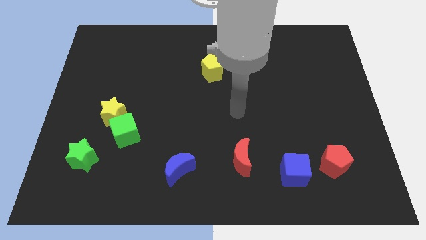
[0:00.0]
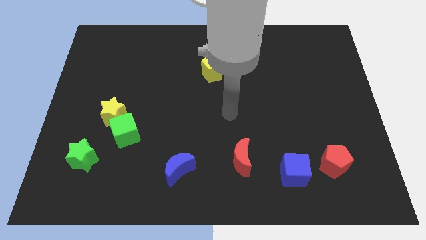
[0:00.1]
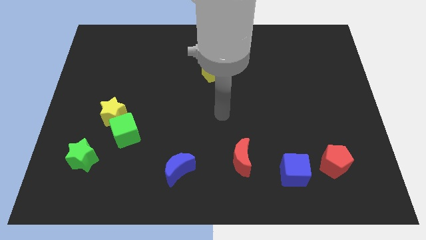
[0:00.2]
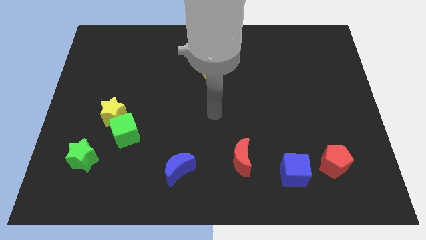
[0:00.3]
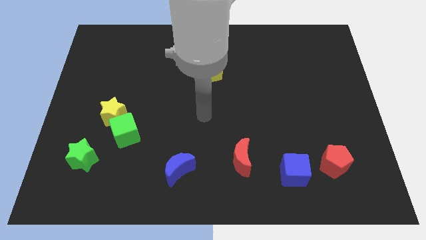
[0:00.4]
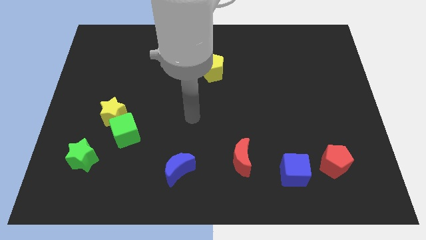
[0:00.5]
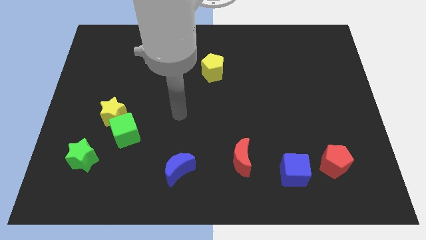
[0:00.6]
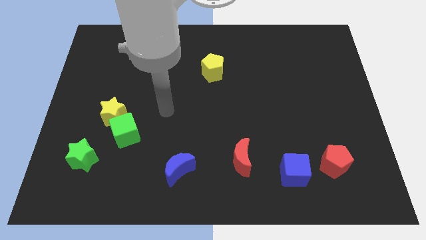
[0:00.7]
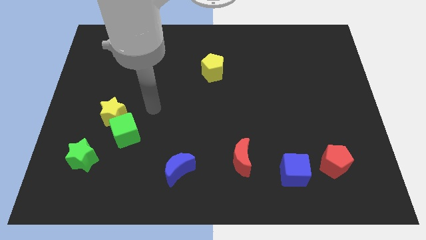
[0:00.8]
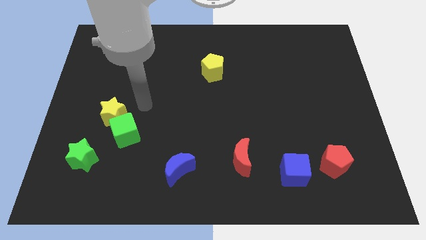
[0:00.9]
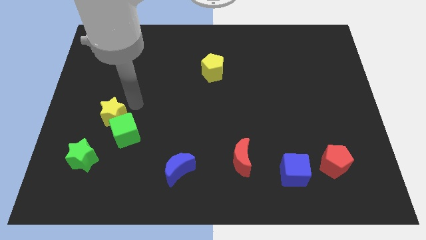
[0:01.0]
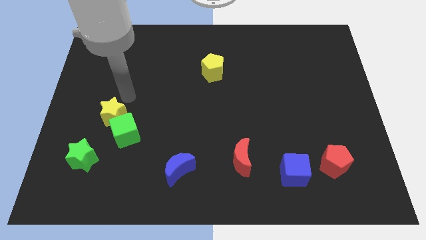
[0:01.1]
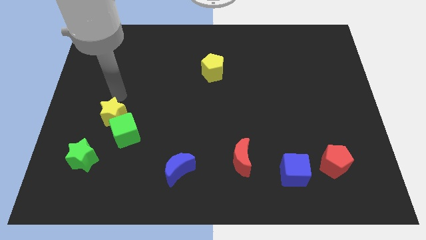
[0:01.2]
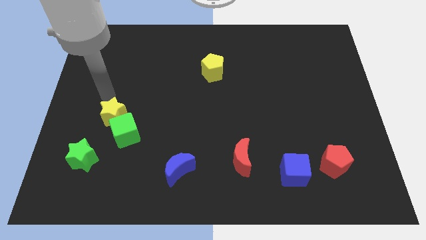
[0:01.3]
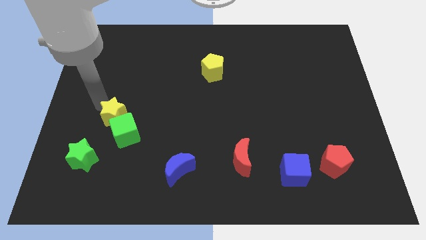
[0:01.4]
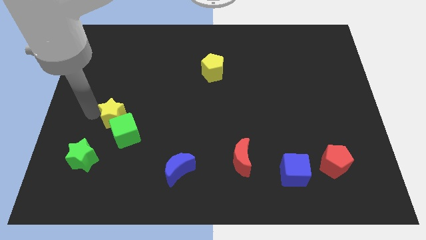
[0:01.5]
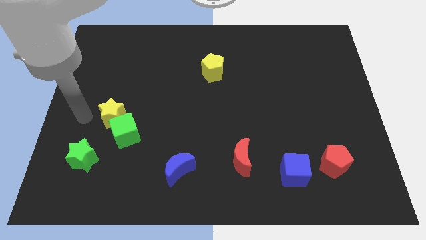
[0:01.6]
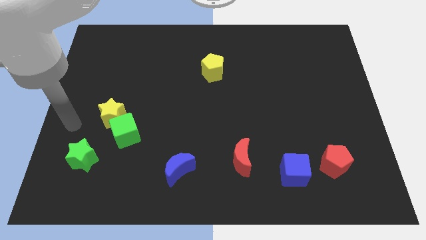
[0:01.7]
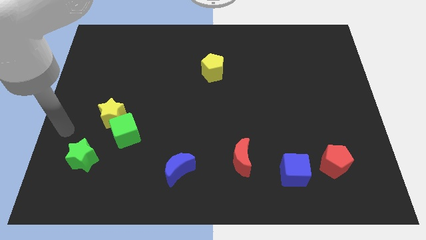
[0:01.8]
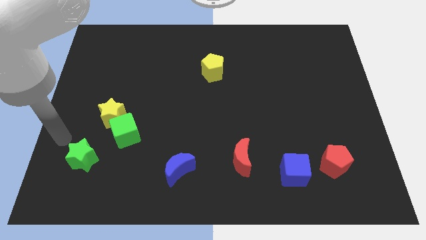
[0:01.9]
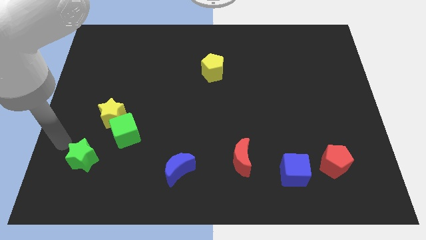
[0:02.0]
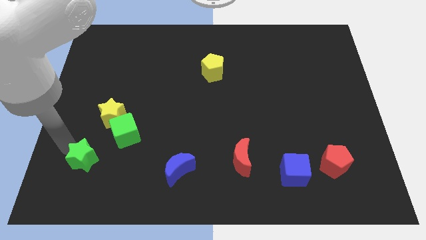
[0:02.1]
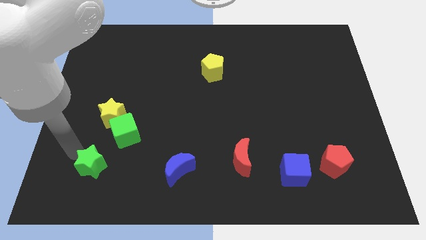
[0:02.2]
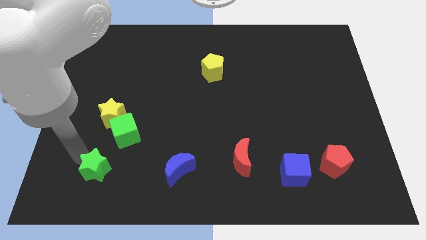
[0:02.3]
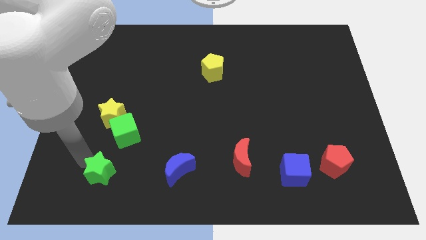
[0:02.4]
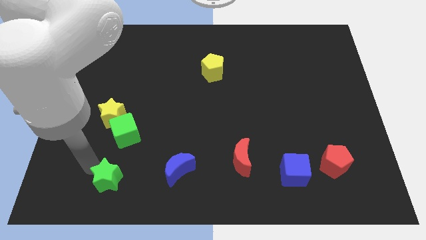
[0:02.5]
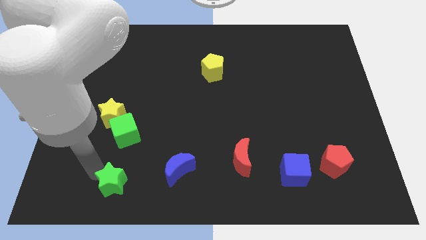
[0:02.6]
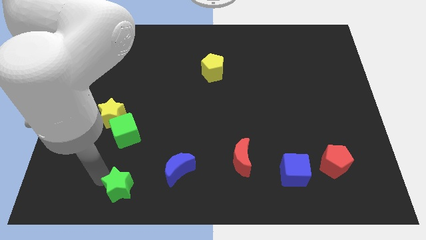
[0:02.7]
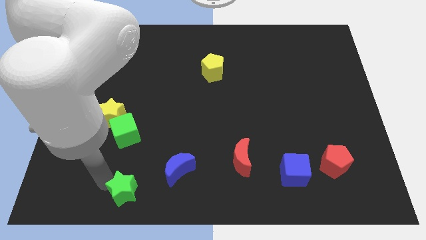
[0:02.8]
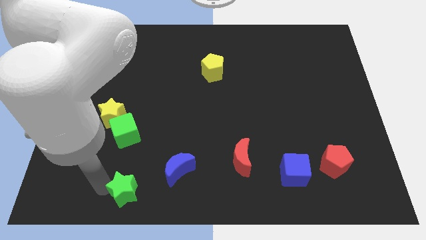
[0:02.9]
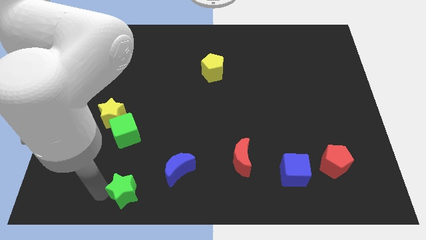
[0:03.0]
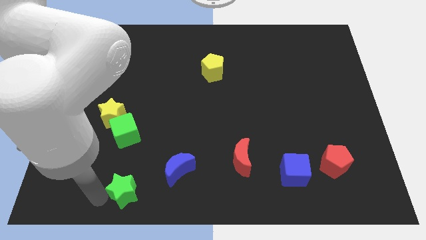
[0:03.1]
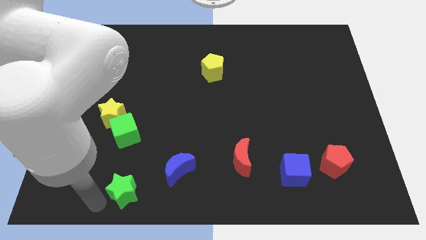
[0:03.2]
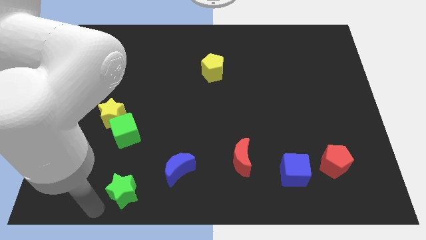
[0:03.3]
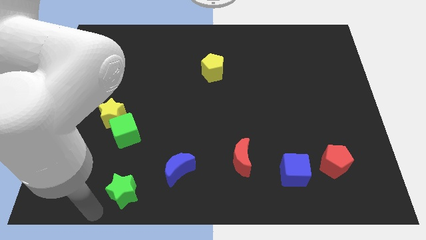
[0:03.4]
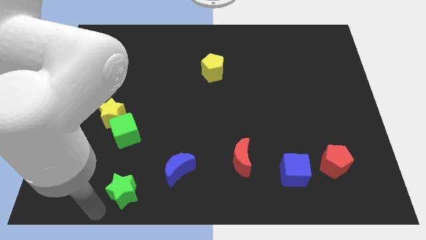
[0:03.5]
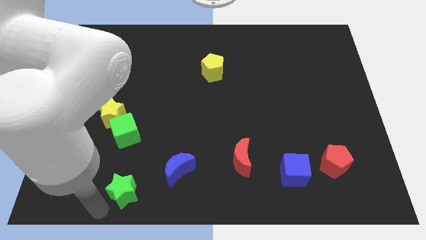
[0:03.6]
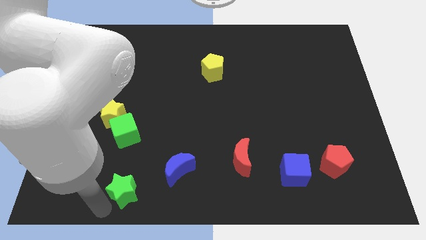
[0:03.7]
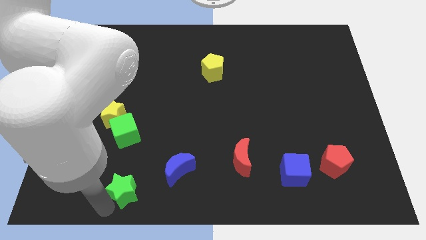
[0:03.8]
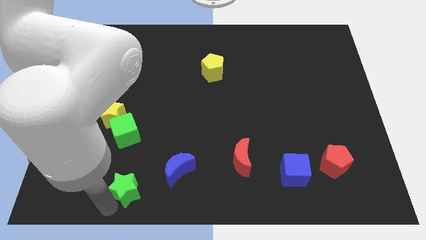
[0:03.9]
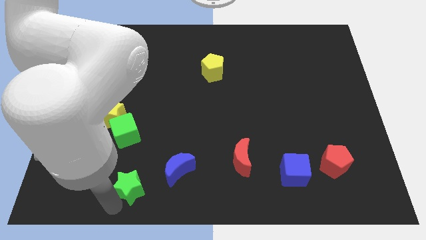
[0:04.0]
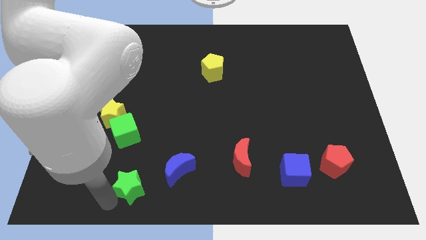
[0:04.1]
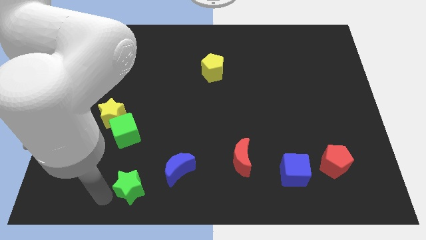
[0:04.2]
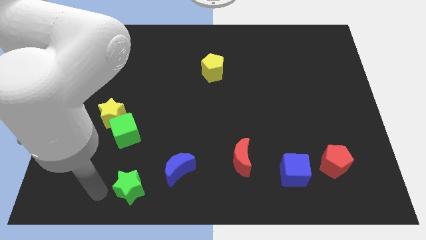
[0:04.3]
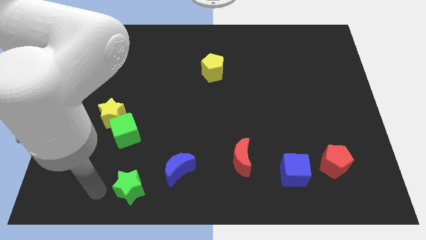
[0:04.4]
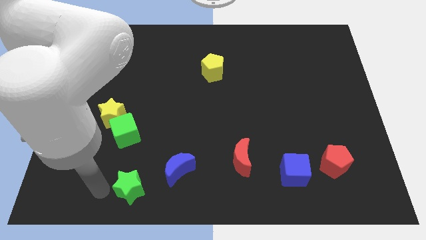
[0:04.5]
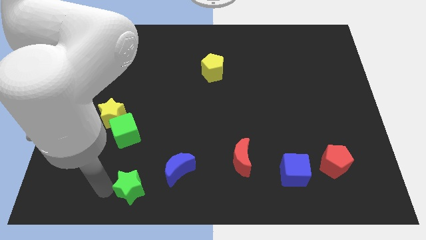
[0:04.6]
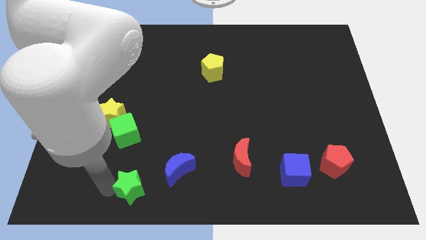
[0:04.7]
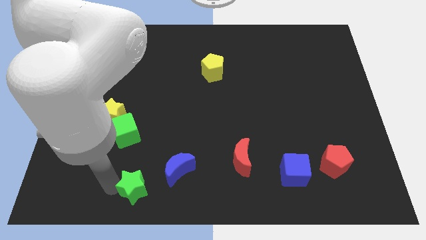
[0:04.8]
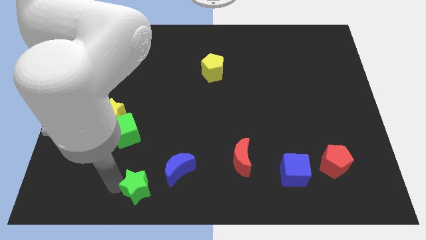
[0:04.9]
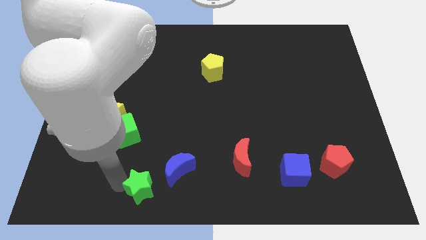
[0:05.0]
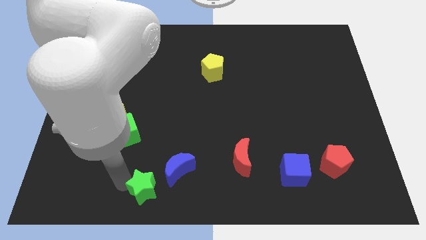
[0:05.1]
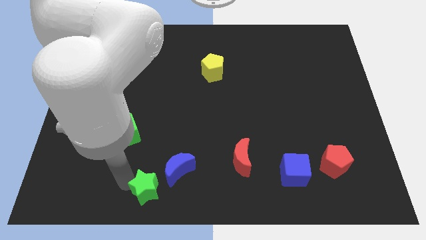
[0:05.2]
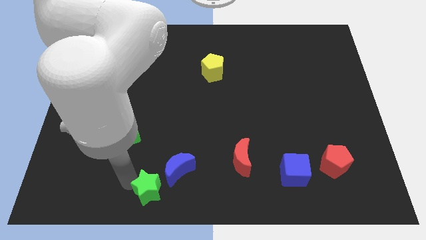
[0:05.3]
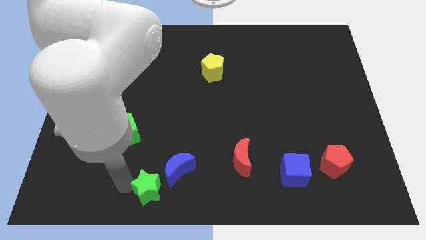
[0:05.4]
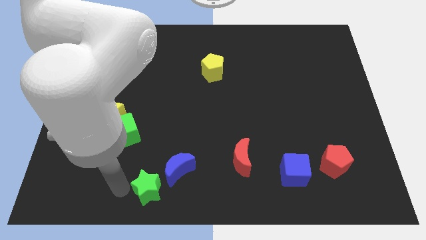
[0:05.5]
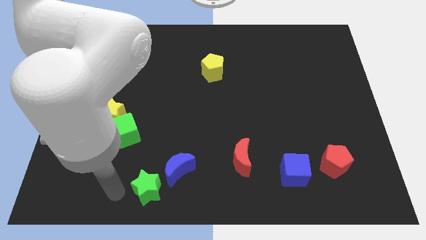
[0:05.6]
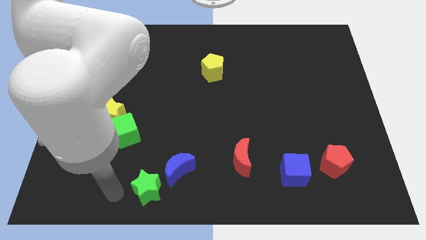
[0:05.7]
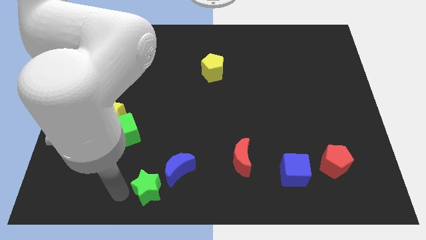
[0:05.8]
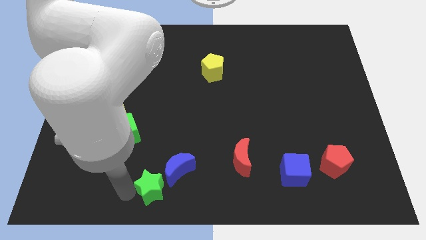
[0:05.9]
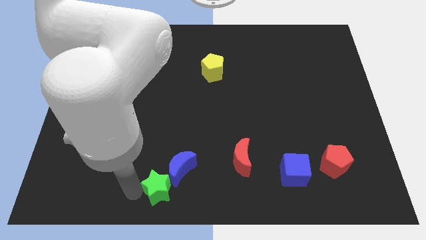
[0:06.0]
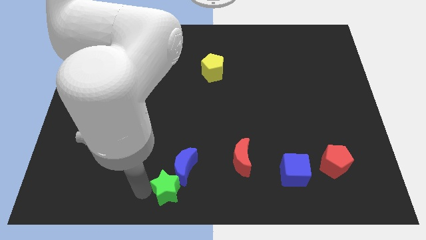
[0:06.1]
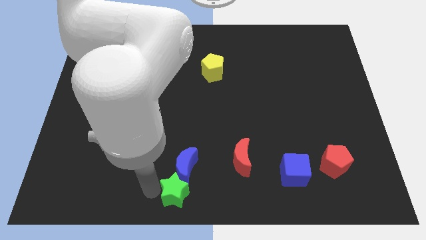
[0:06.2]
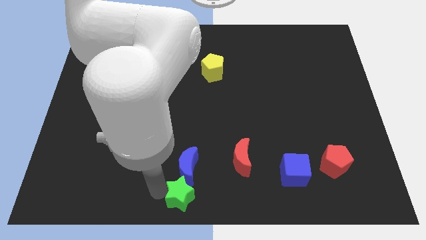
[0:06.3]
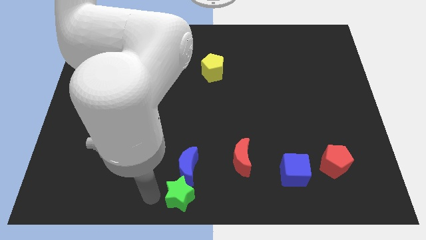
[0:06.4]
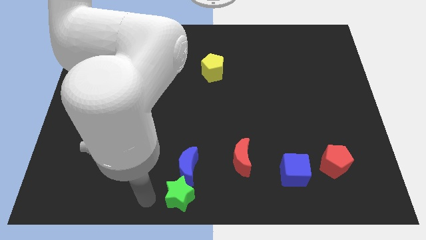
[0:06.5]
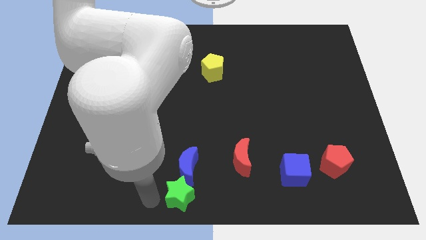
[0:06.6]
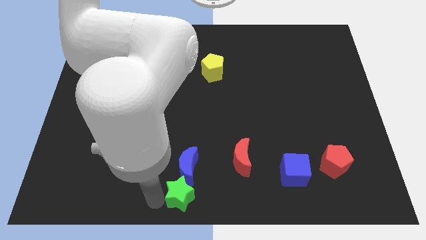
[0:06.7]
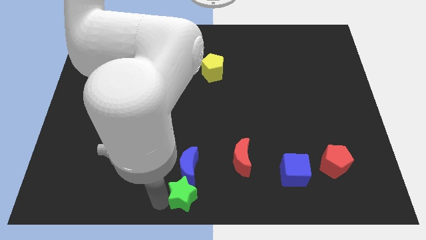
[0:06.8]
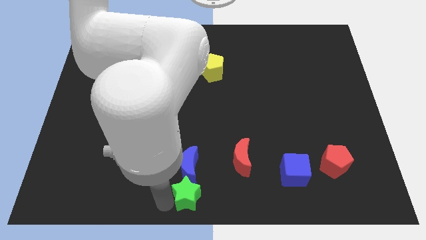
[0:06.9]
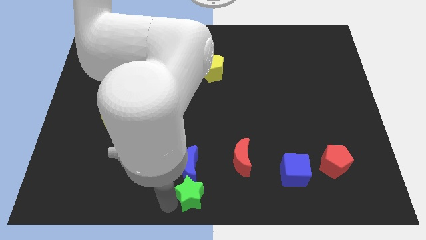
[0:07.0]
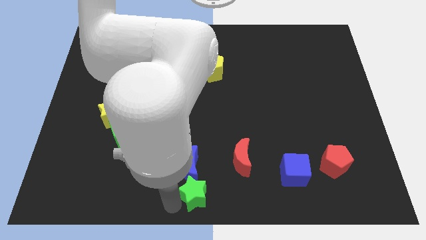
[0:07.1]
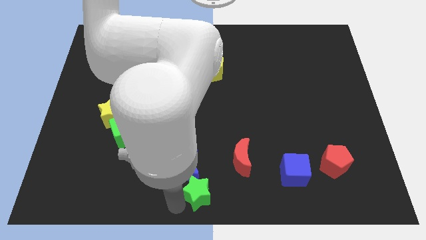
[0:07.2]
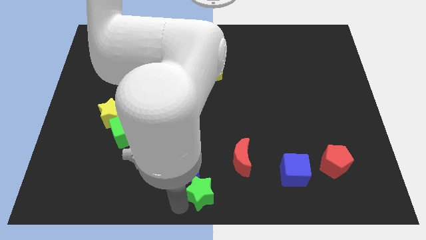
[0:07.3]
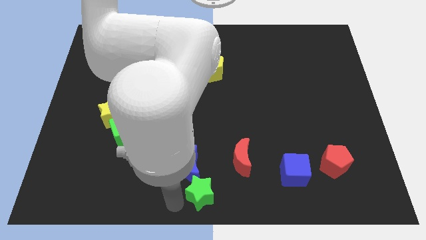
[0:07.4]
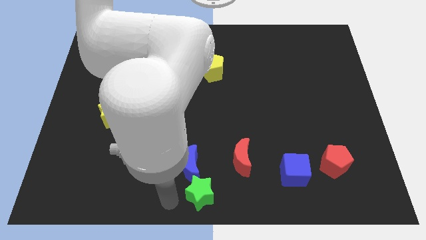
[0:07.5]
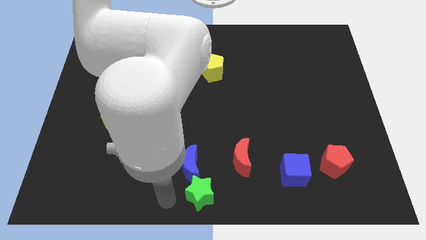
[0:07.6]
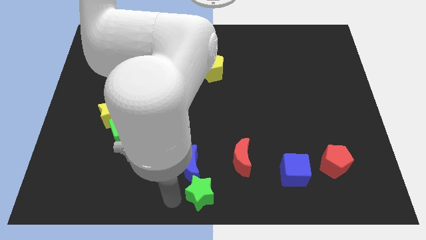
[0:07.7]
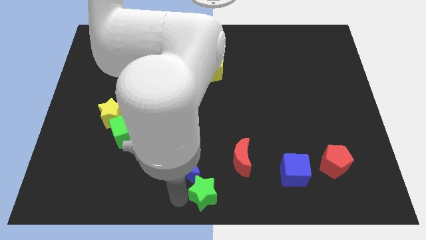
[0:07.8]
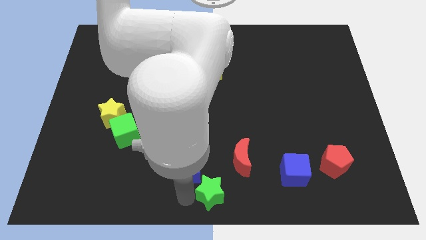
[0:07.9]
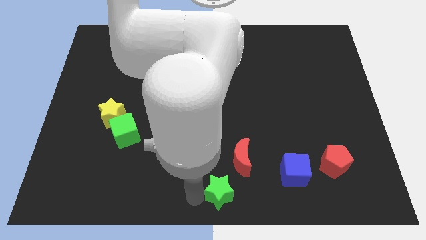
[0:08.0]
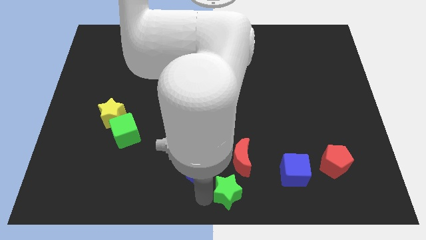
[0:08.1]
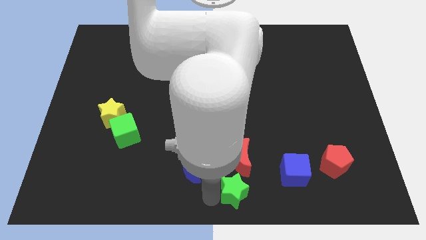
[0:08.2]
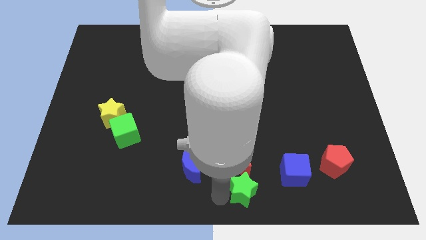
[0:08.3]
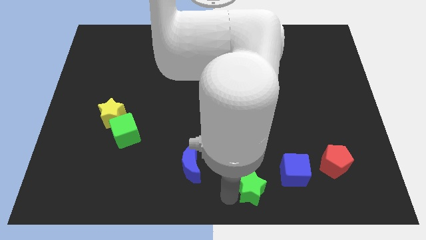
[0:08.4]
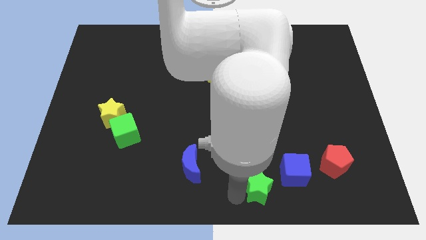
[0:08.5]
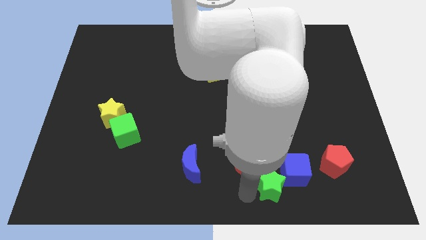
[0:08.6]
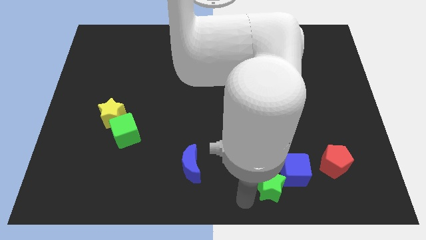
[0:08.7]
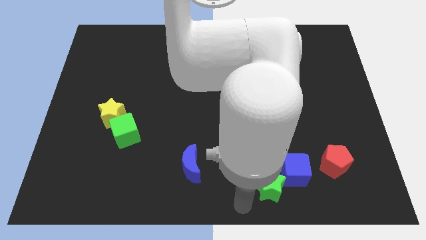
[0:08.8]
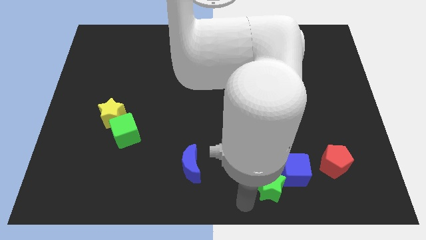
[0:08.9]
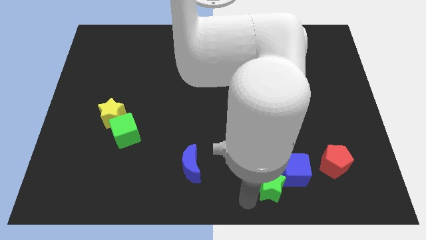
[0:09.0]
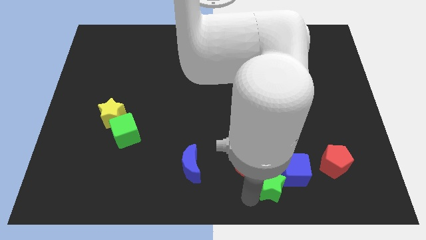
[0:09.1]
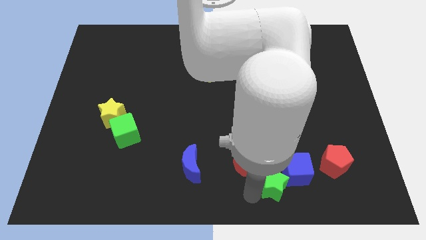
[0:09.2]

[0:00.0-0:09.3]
put the green star close to the blue cube
